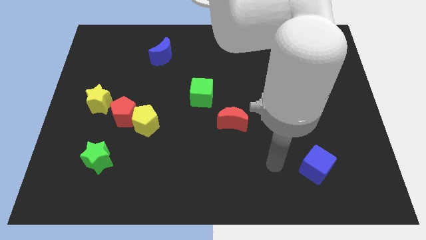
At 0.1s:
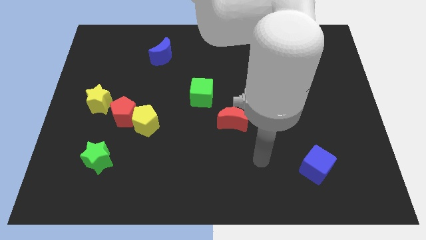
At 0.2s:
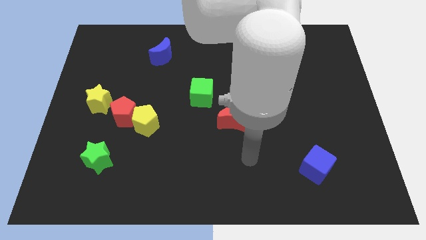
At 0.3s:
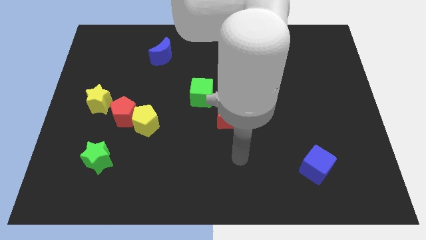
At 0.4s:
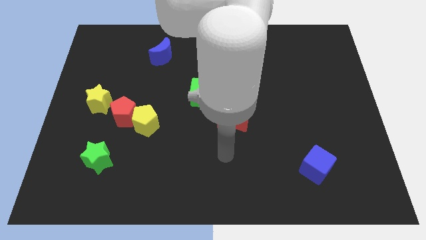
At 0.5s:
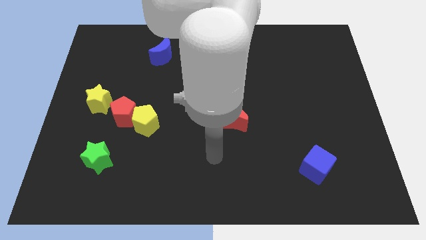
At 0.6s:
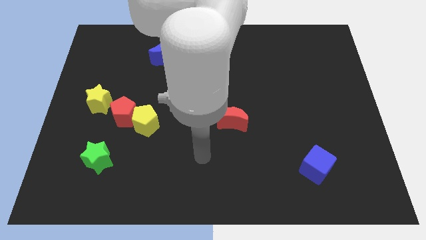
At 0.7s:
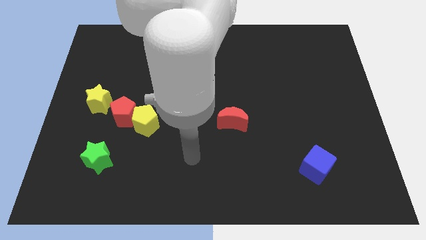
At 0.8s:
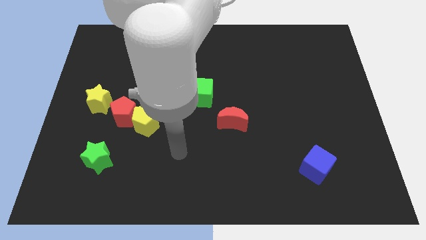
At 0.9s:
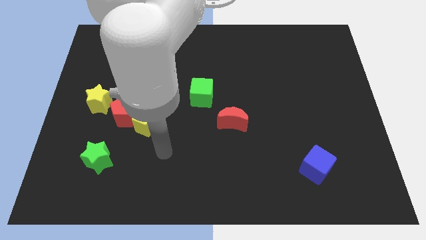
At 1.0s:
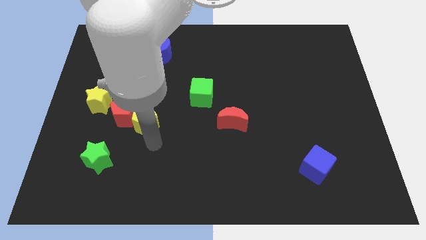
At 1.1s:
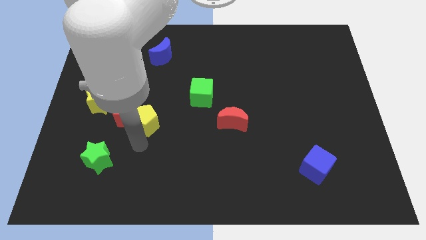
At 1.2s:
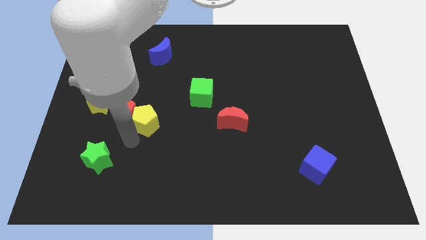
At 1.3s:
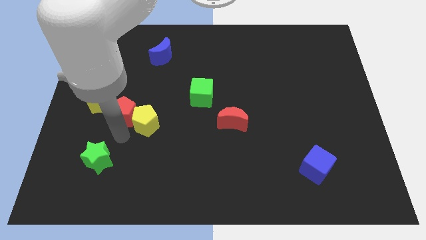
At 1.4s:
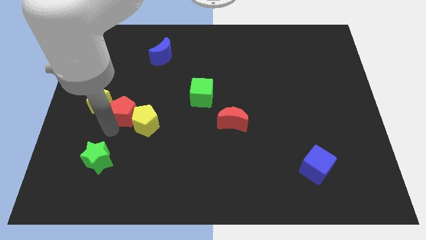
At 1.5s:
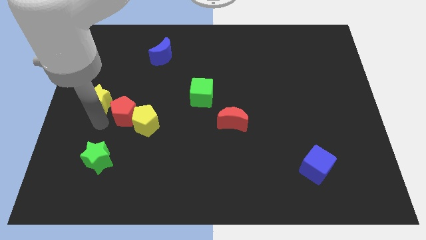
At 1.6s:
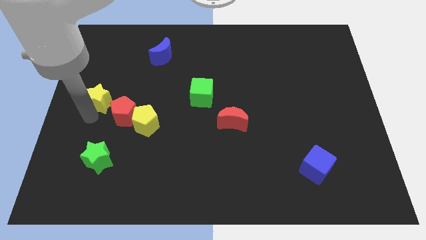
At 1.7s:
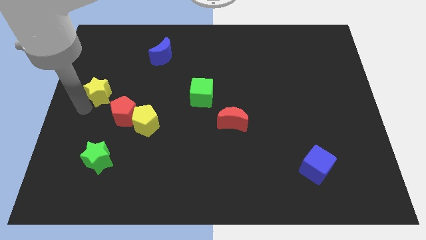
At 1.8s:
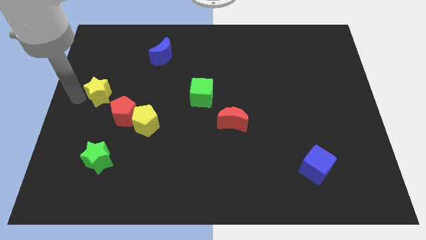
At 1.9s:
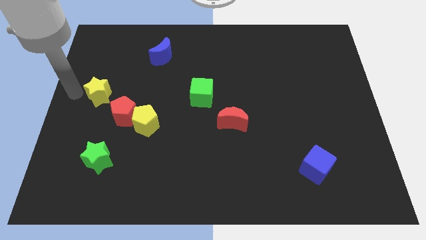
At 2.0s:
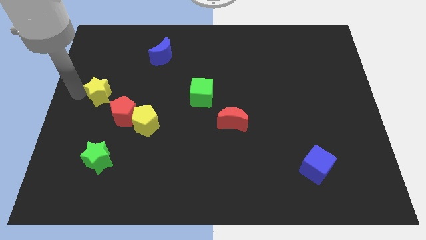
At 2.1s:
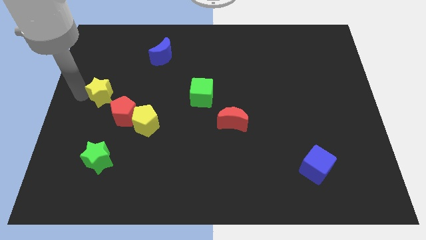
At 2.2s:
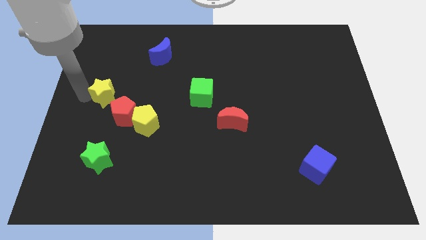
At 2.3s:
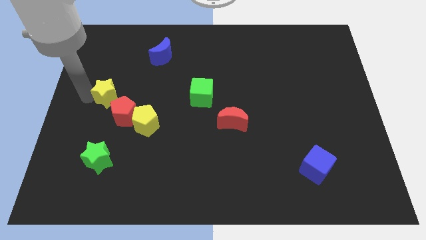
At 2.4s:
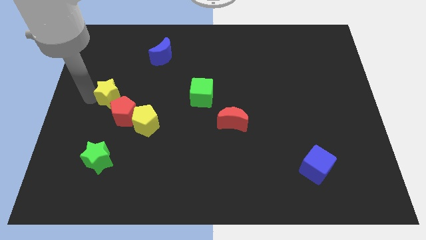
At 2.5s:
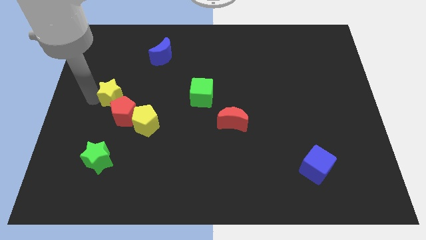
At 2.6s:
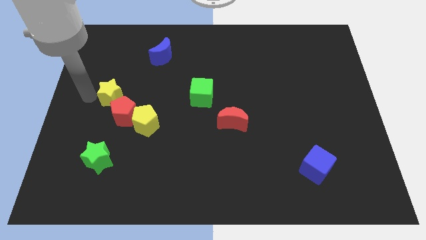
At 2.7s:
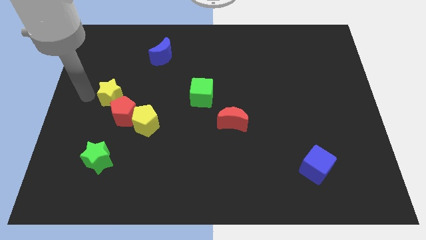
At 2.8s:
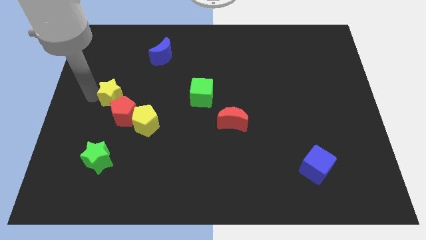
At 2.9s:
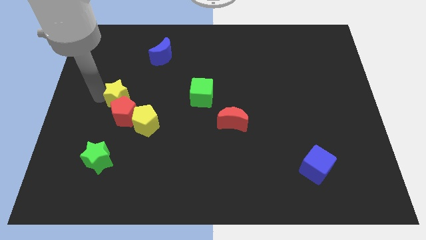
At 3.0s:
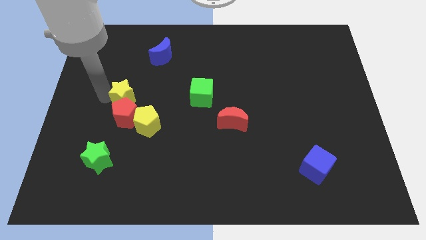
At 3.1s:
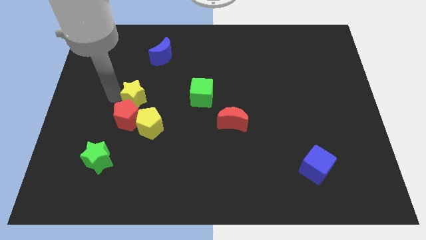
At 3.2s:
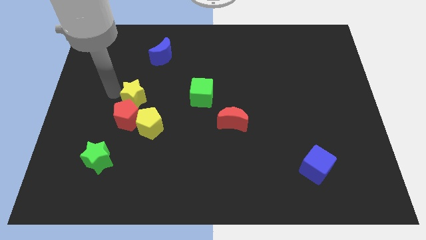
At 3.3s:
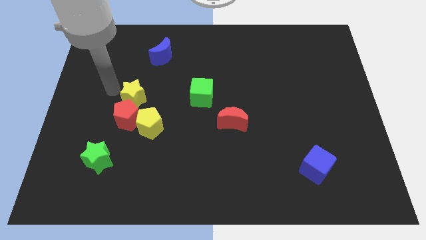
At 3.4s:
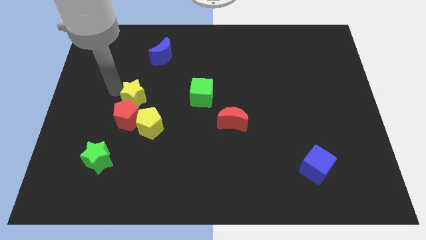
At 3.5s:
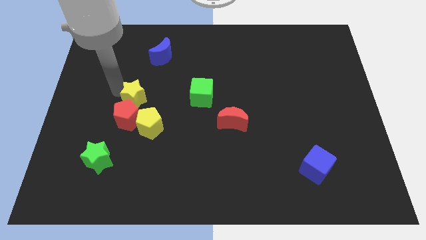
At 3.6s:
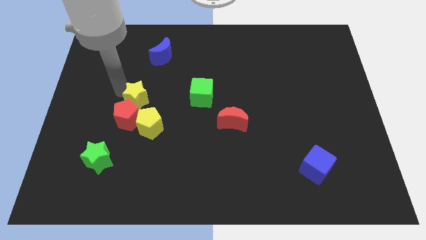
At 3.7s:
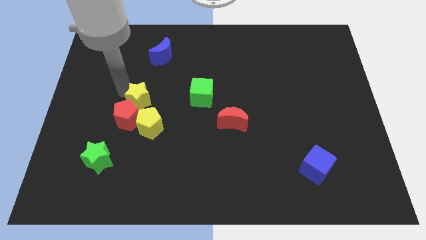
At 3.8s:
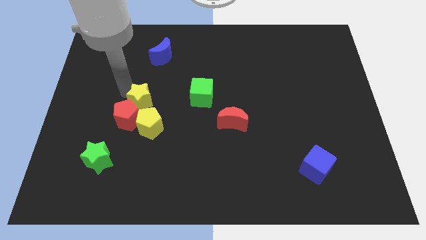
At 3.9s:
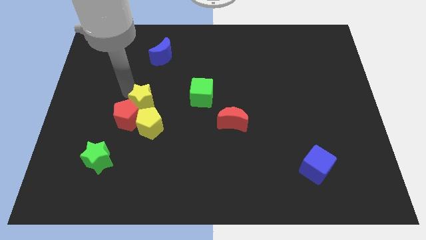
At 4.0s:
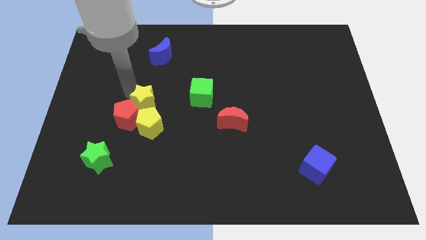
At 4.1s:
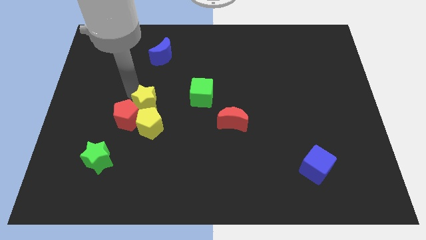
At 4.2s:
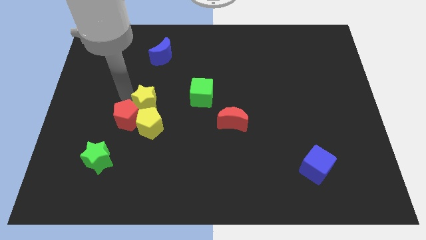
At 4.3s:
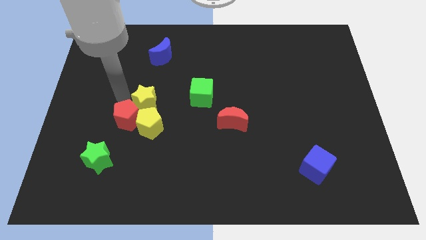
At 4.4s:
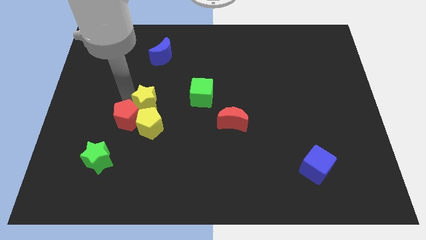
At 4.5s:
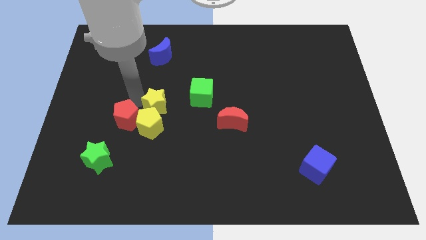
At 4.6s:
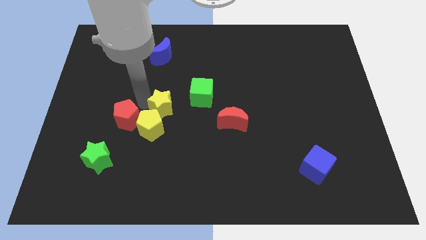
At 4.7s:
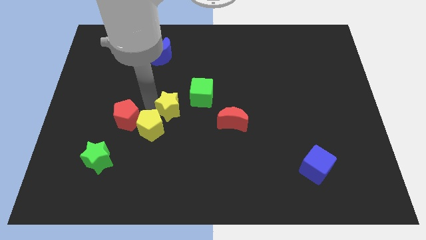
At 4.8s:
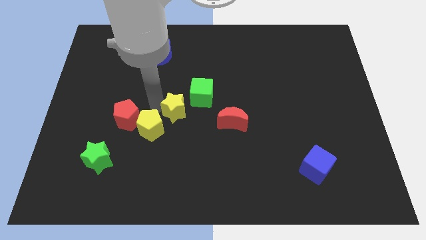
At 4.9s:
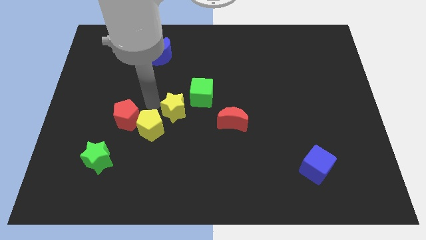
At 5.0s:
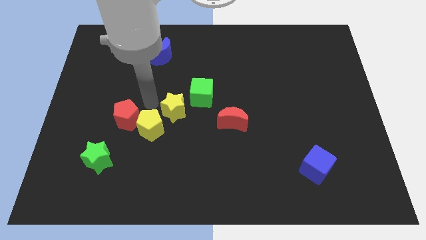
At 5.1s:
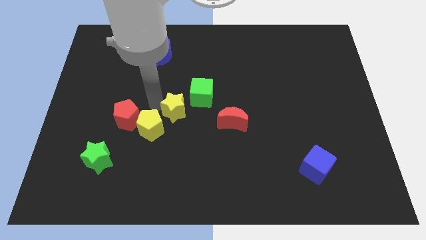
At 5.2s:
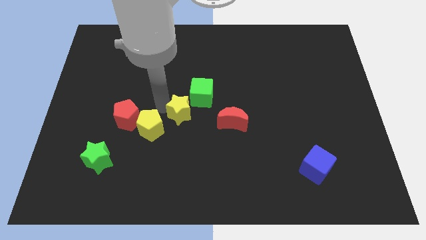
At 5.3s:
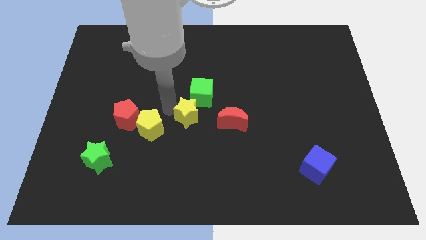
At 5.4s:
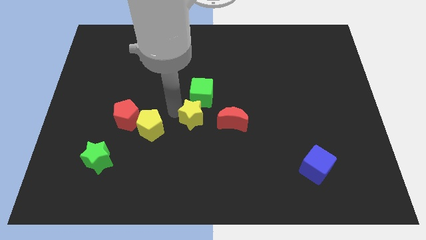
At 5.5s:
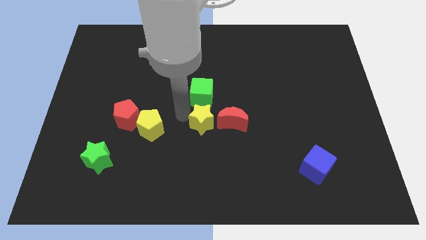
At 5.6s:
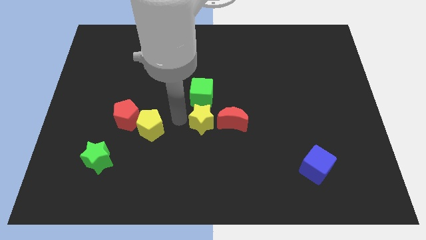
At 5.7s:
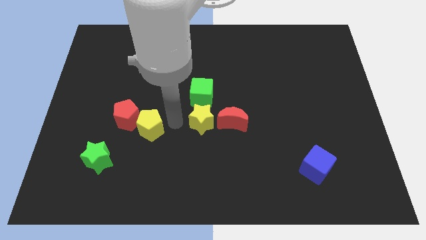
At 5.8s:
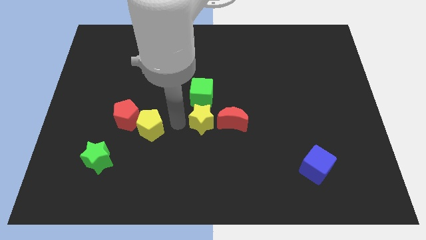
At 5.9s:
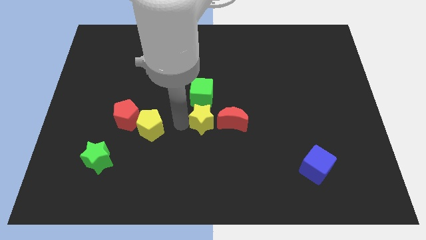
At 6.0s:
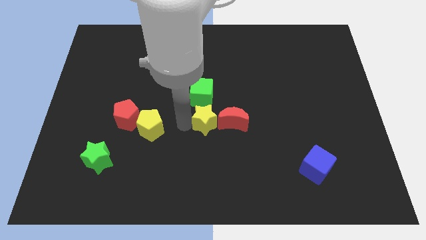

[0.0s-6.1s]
push the yellow star close to the red moon

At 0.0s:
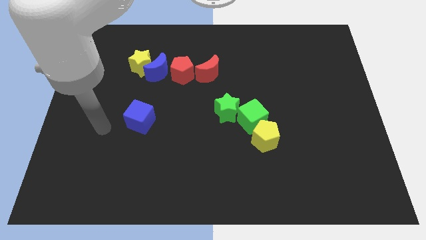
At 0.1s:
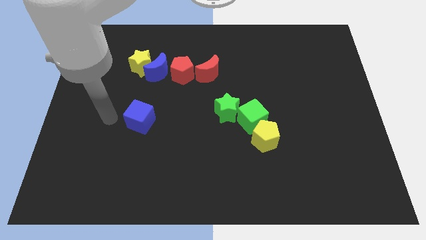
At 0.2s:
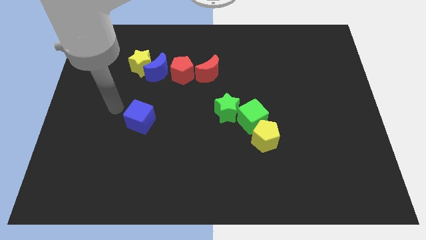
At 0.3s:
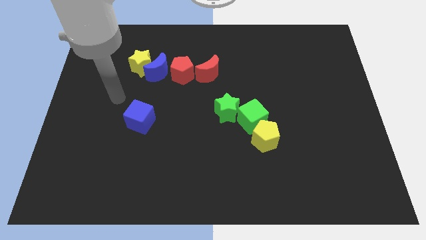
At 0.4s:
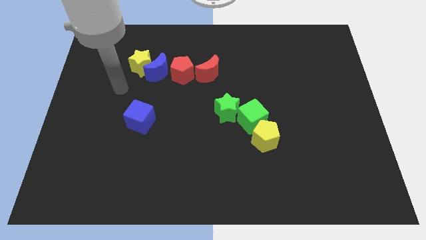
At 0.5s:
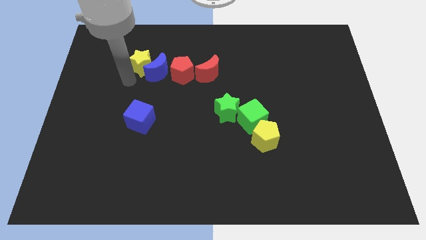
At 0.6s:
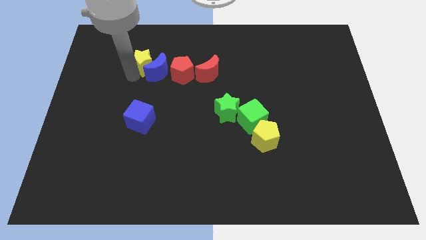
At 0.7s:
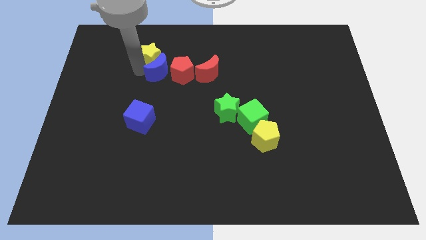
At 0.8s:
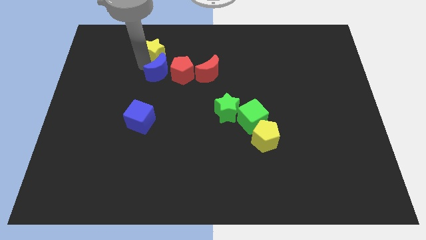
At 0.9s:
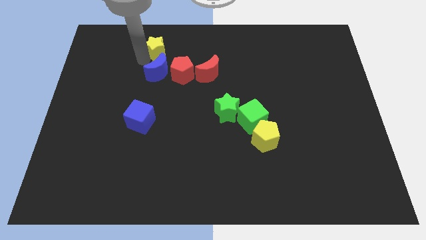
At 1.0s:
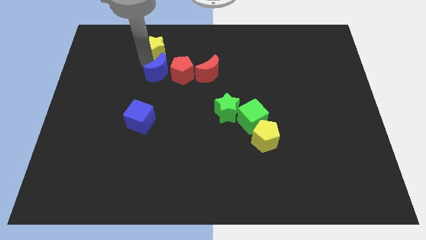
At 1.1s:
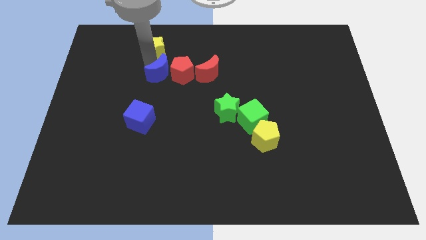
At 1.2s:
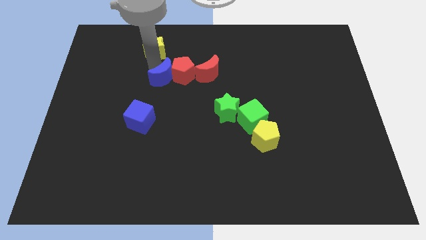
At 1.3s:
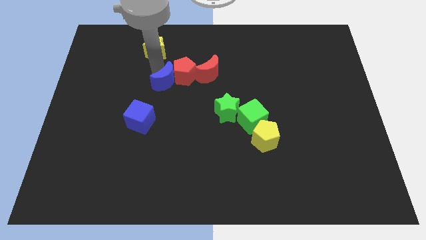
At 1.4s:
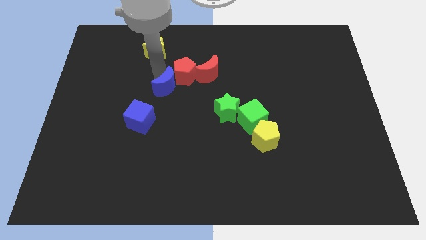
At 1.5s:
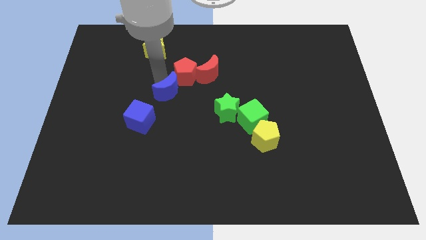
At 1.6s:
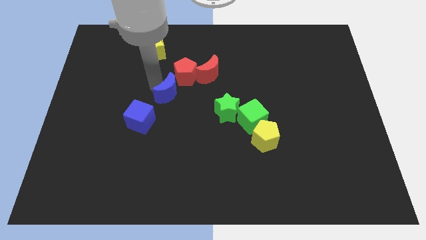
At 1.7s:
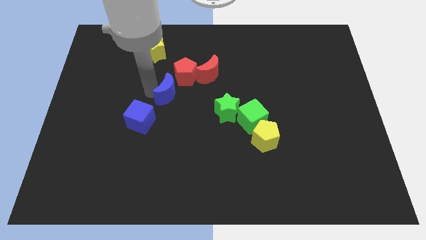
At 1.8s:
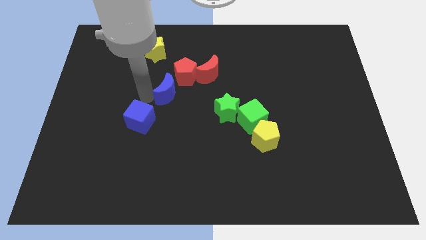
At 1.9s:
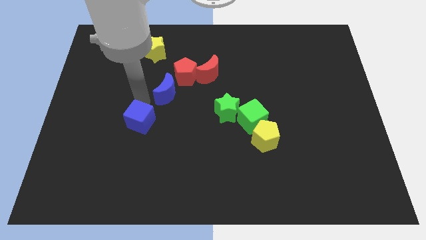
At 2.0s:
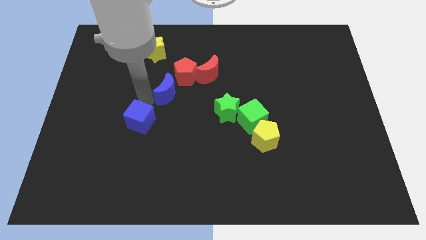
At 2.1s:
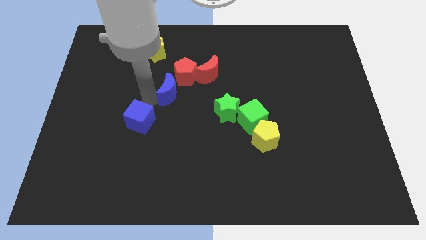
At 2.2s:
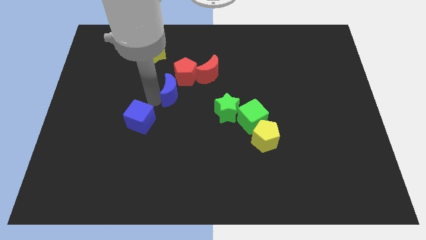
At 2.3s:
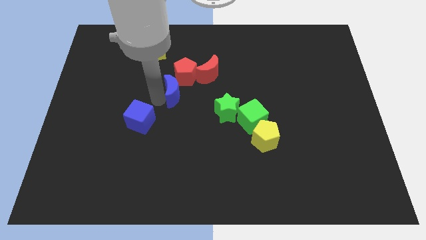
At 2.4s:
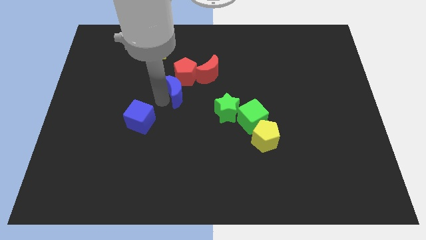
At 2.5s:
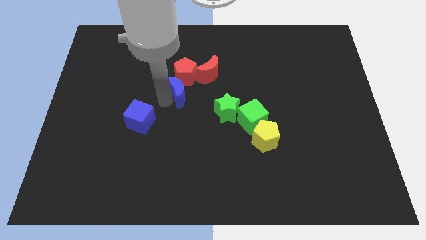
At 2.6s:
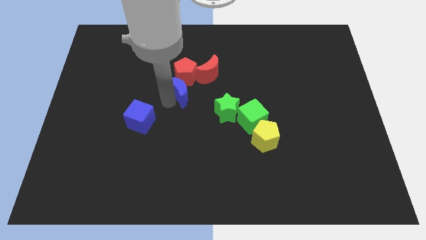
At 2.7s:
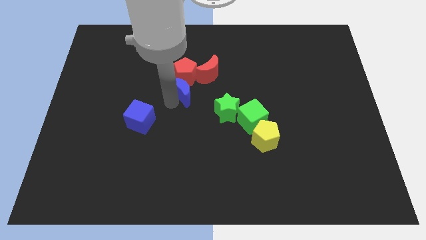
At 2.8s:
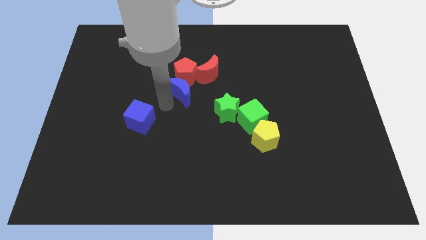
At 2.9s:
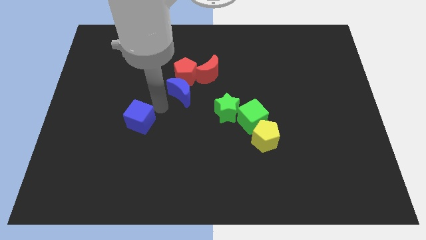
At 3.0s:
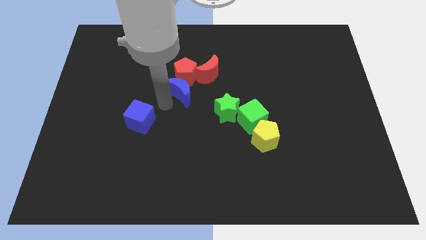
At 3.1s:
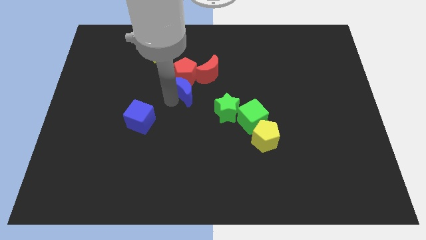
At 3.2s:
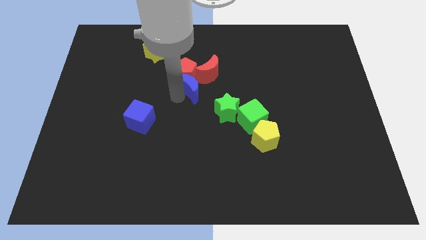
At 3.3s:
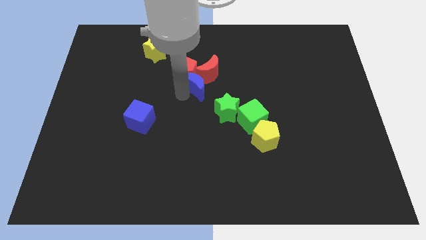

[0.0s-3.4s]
push the blue moon to the red moon
